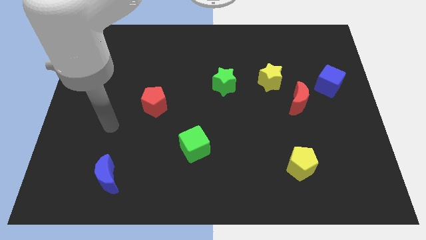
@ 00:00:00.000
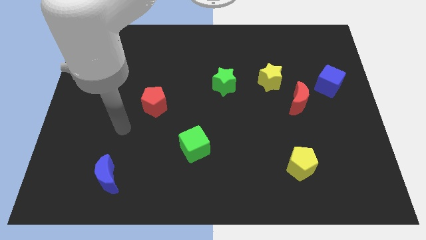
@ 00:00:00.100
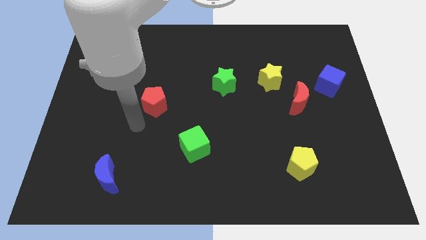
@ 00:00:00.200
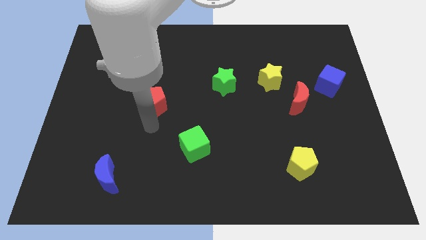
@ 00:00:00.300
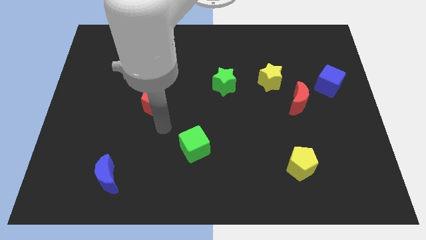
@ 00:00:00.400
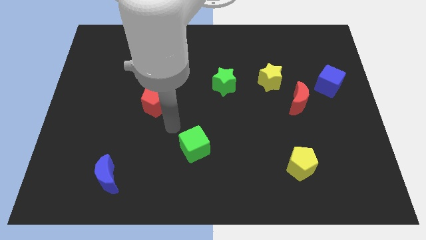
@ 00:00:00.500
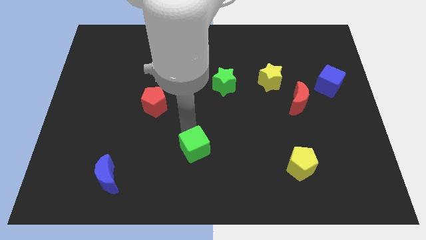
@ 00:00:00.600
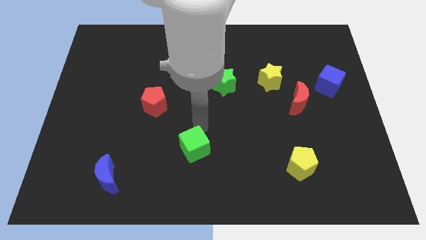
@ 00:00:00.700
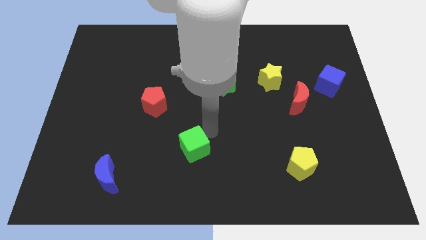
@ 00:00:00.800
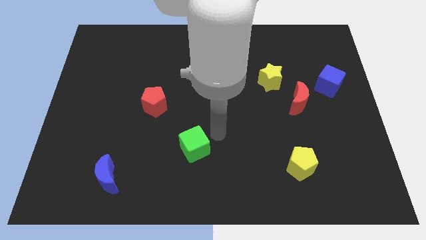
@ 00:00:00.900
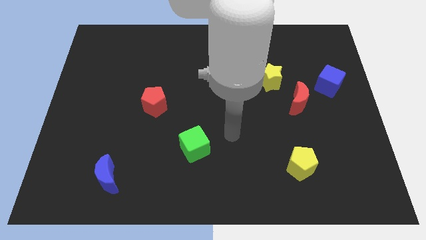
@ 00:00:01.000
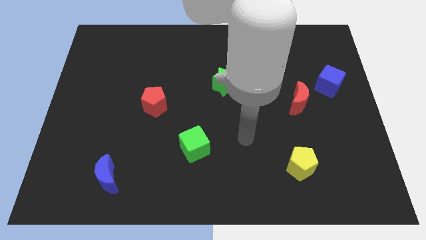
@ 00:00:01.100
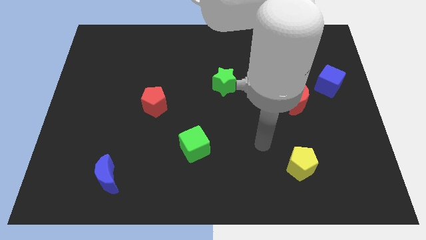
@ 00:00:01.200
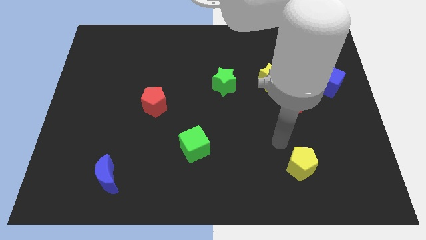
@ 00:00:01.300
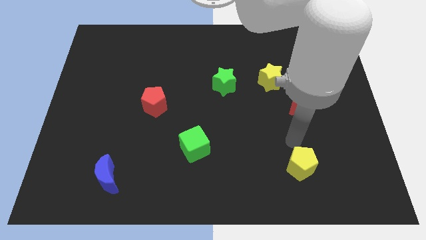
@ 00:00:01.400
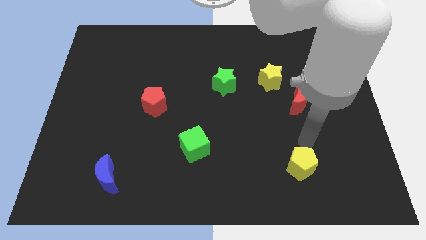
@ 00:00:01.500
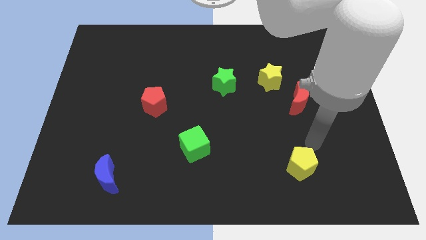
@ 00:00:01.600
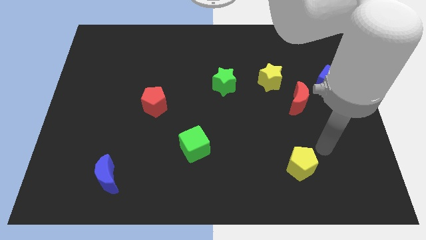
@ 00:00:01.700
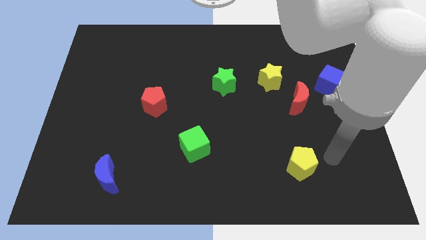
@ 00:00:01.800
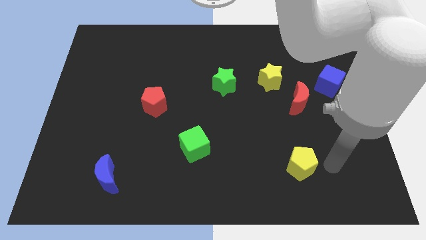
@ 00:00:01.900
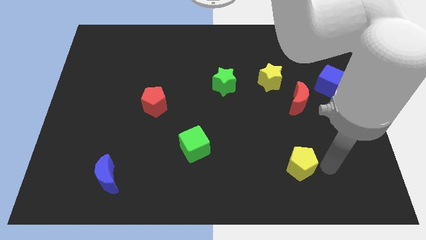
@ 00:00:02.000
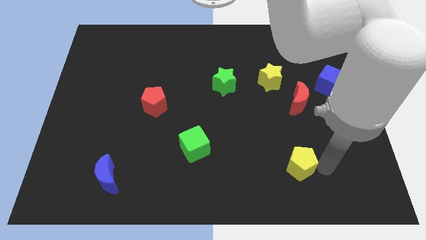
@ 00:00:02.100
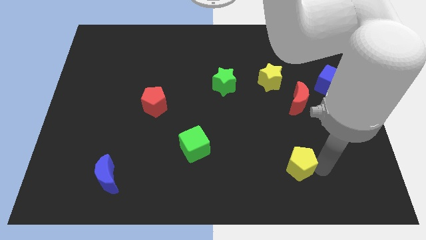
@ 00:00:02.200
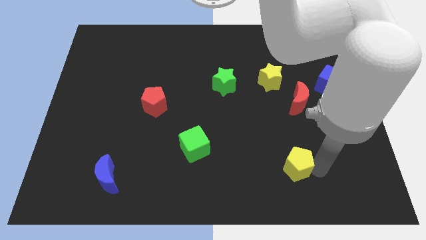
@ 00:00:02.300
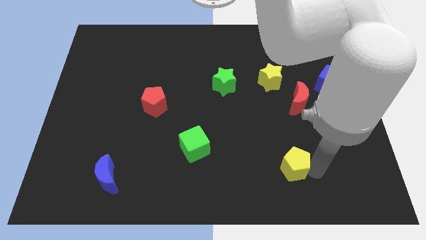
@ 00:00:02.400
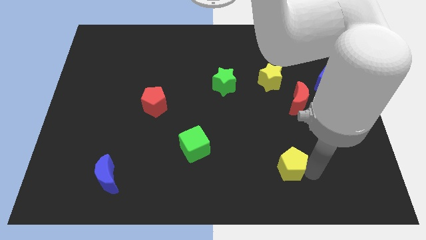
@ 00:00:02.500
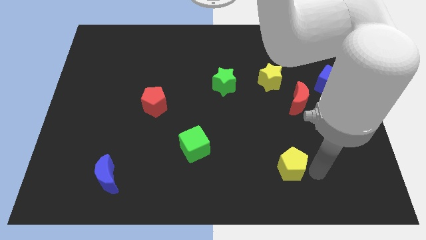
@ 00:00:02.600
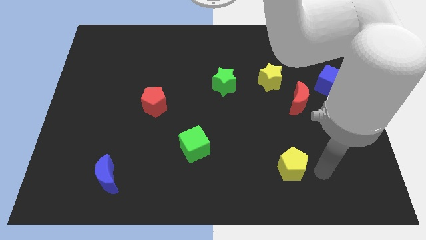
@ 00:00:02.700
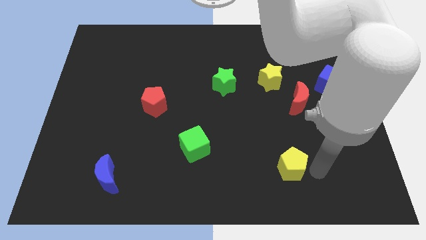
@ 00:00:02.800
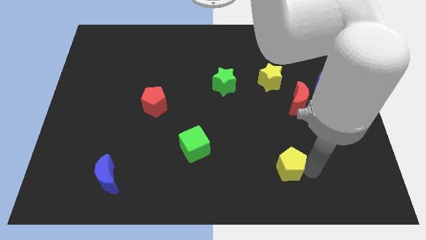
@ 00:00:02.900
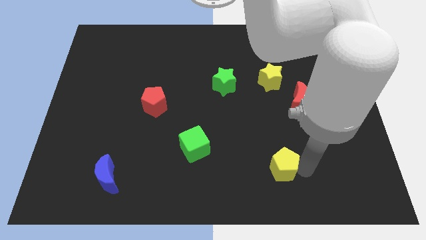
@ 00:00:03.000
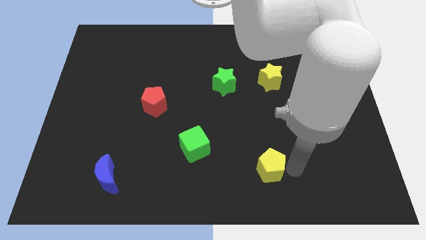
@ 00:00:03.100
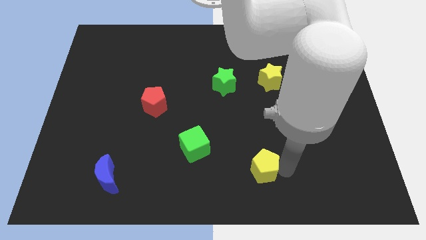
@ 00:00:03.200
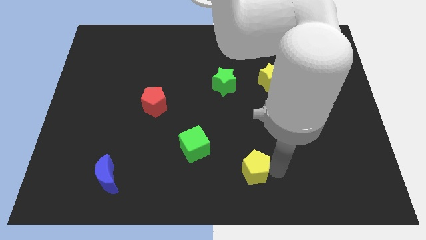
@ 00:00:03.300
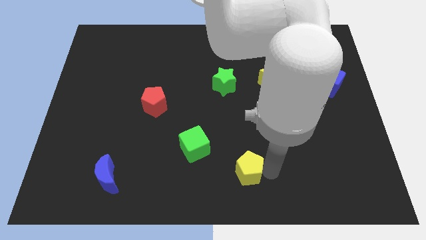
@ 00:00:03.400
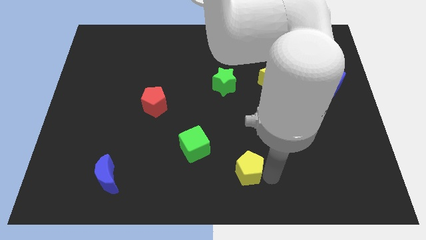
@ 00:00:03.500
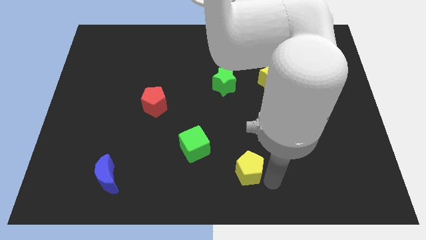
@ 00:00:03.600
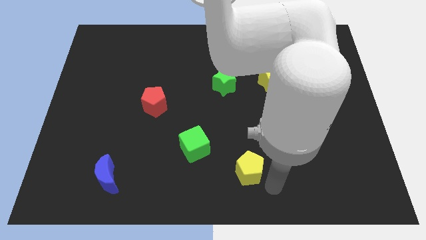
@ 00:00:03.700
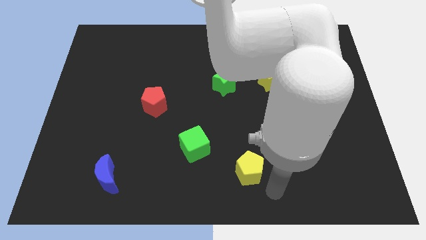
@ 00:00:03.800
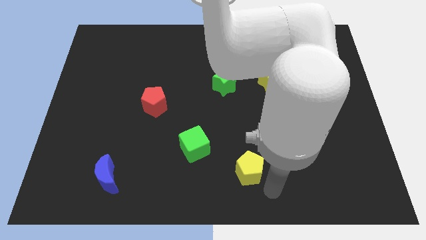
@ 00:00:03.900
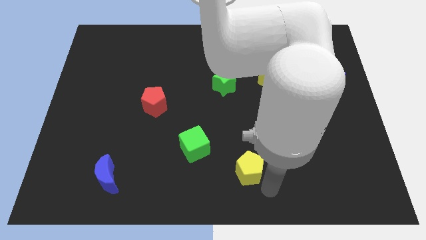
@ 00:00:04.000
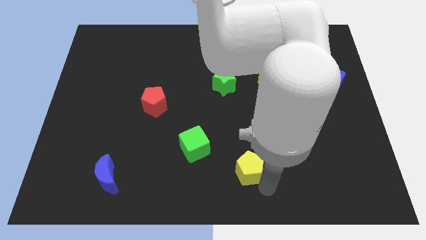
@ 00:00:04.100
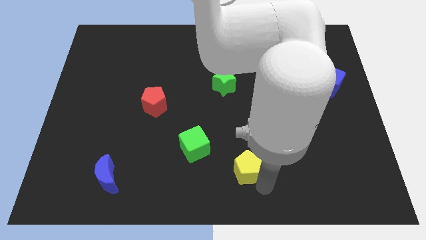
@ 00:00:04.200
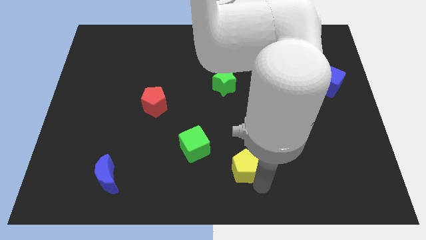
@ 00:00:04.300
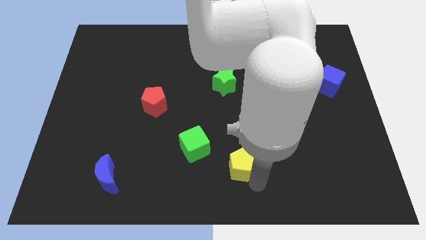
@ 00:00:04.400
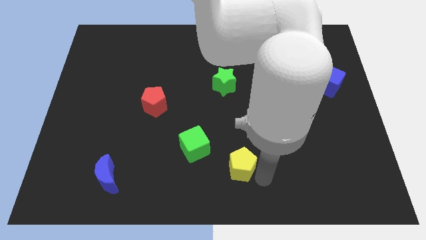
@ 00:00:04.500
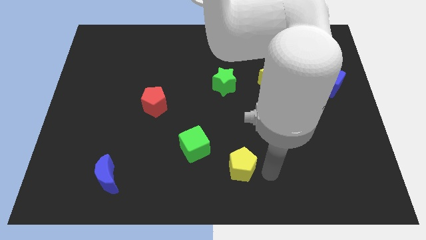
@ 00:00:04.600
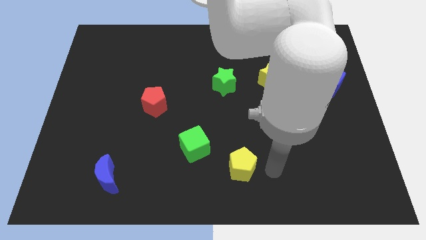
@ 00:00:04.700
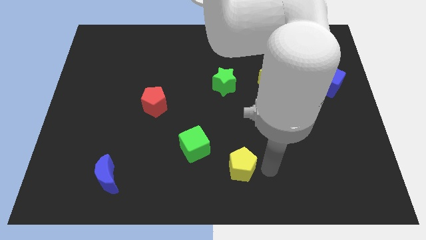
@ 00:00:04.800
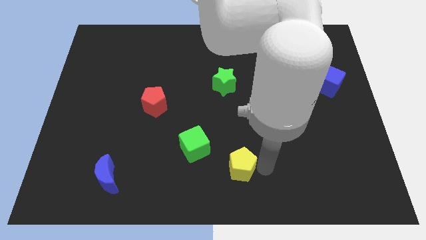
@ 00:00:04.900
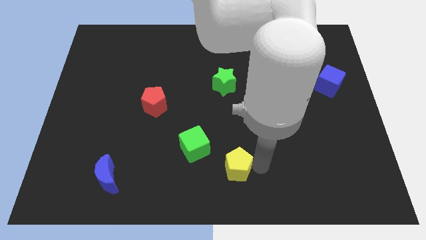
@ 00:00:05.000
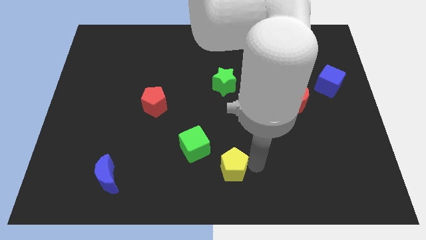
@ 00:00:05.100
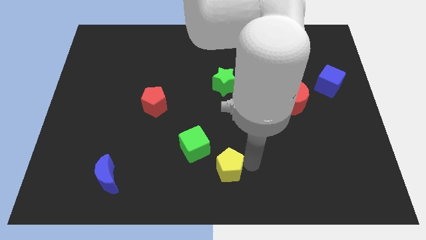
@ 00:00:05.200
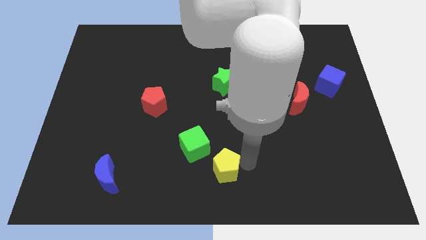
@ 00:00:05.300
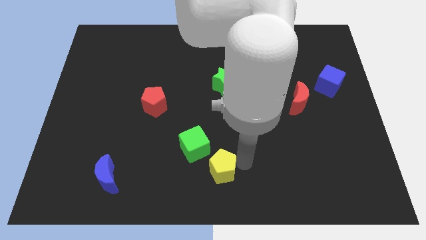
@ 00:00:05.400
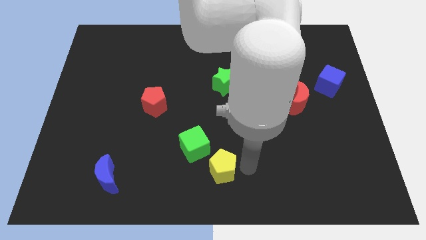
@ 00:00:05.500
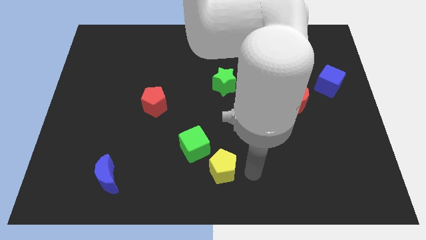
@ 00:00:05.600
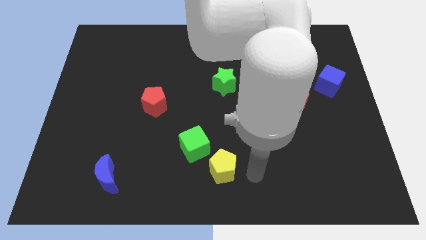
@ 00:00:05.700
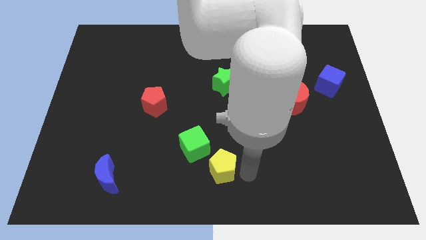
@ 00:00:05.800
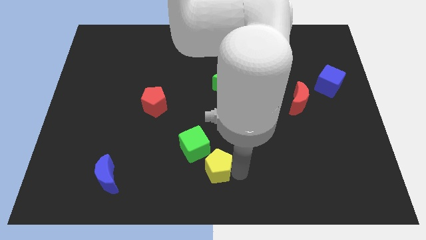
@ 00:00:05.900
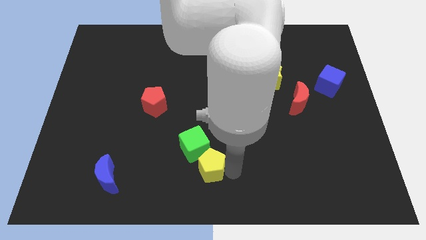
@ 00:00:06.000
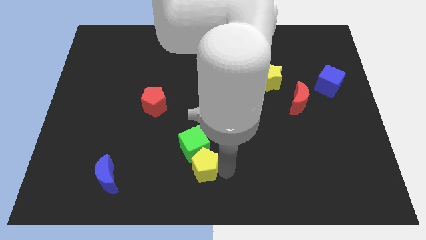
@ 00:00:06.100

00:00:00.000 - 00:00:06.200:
move the yellow pentagon left

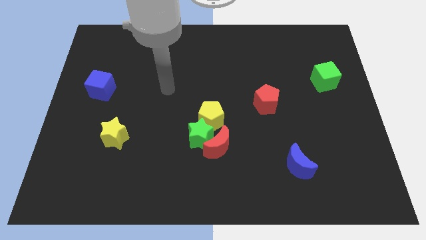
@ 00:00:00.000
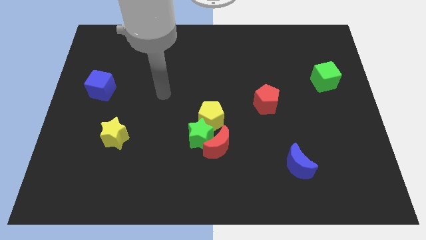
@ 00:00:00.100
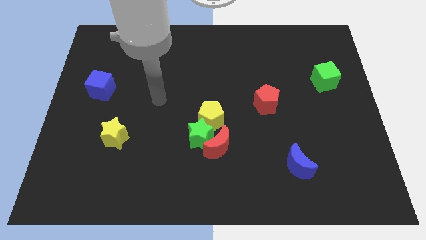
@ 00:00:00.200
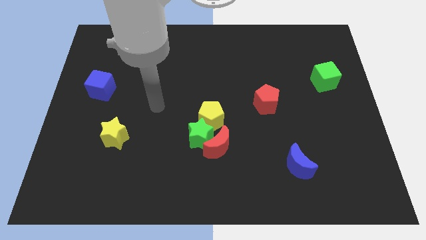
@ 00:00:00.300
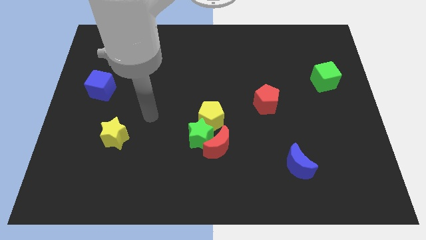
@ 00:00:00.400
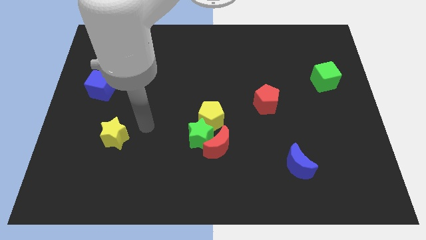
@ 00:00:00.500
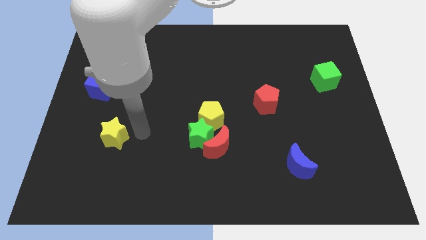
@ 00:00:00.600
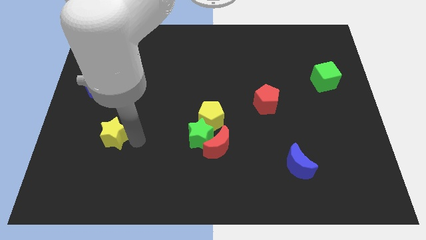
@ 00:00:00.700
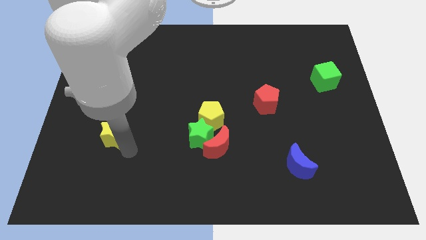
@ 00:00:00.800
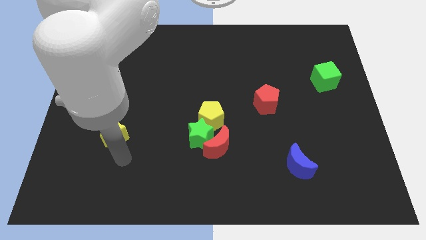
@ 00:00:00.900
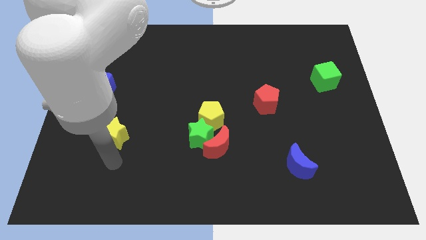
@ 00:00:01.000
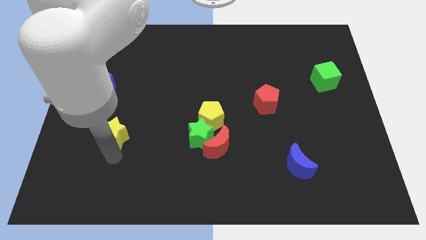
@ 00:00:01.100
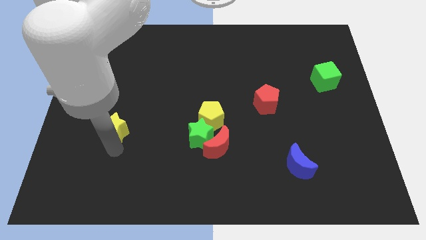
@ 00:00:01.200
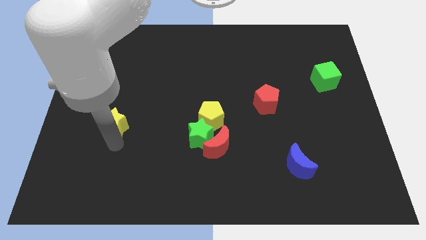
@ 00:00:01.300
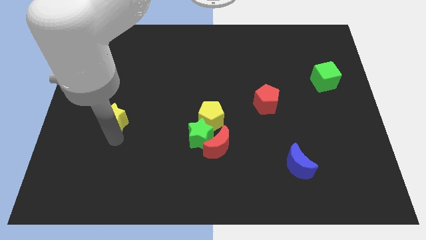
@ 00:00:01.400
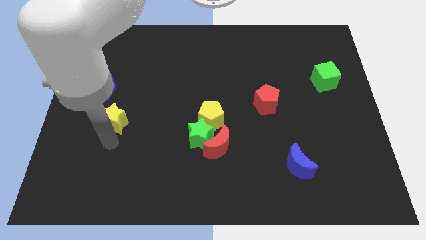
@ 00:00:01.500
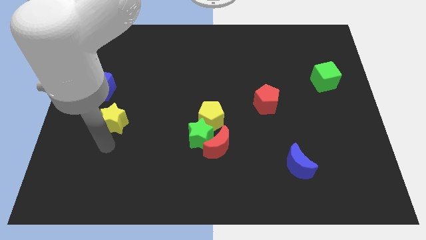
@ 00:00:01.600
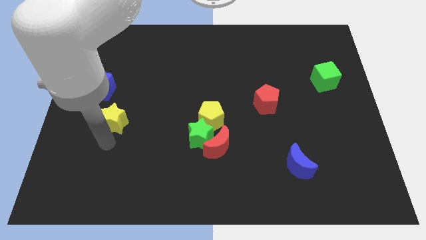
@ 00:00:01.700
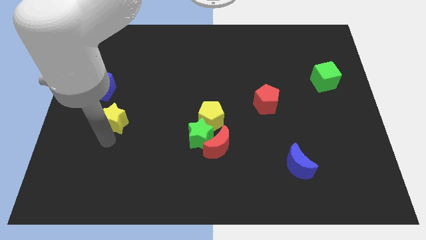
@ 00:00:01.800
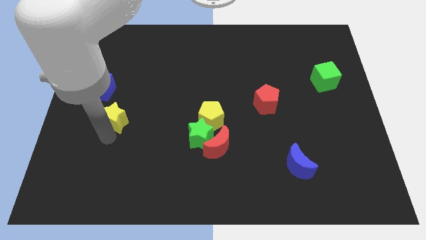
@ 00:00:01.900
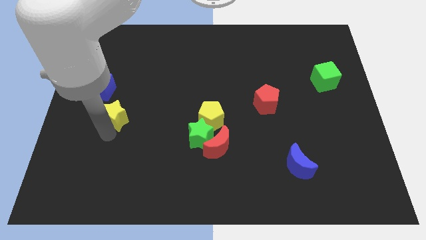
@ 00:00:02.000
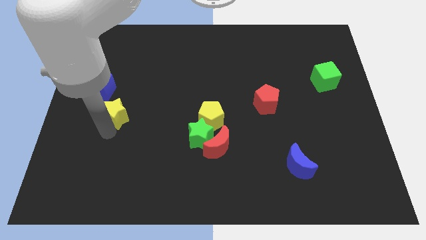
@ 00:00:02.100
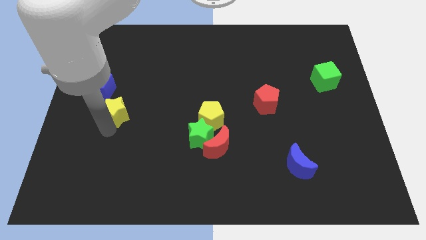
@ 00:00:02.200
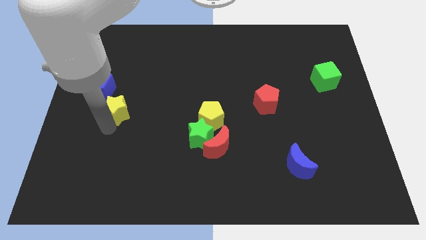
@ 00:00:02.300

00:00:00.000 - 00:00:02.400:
slide the yellow star up a bit
